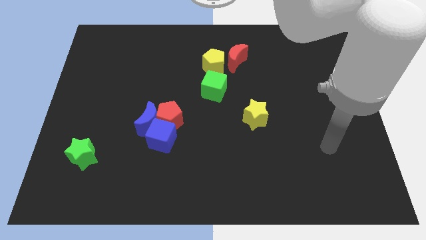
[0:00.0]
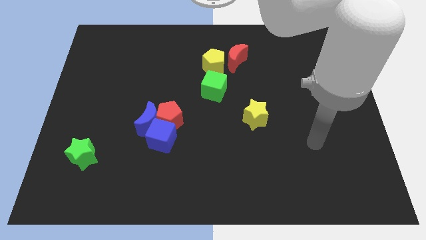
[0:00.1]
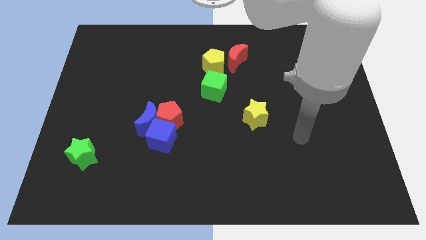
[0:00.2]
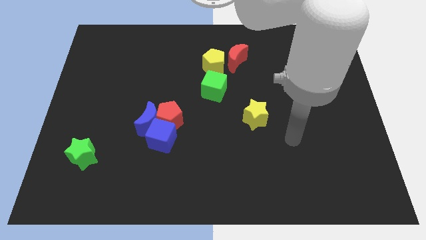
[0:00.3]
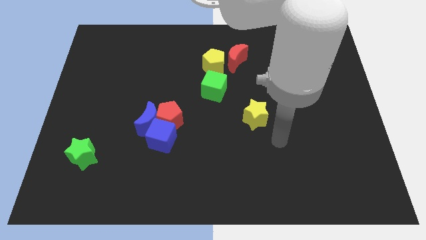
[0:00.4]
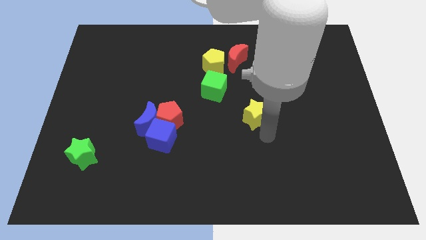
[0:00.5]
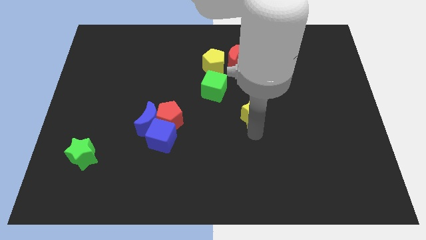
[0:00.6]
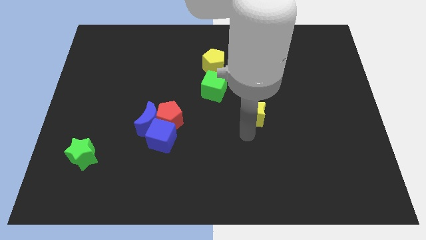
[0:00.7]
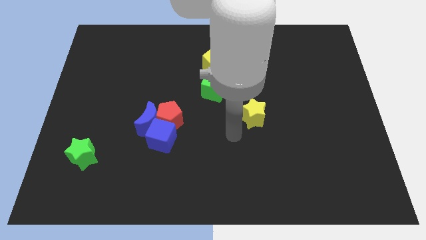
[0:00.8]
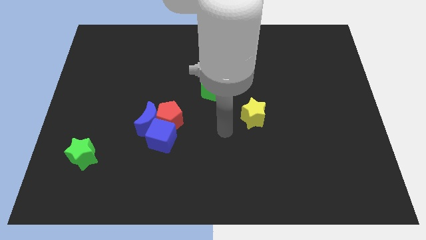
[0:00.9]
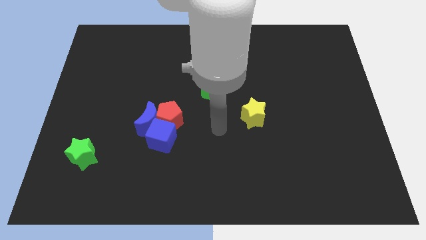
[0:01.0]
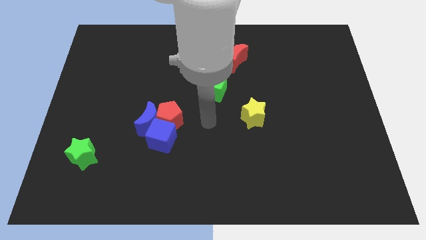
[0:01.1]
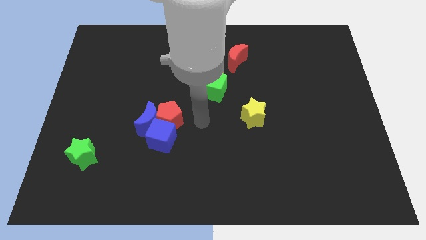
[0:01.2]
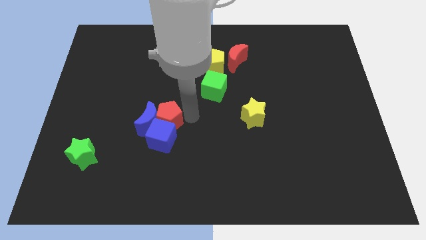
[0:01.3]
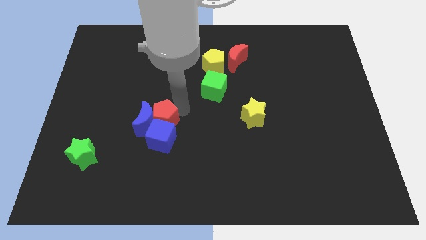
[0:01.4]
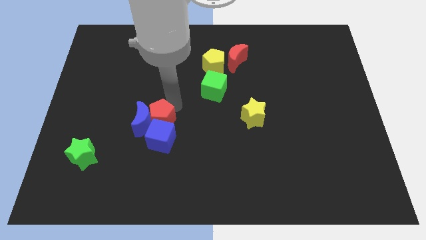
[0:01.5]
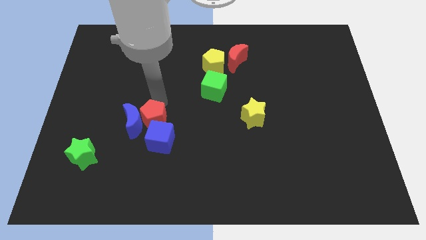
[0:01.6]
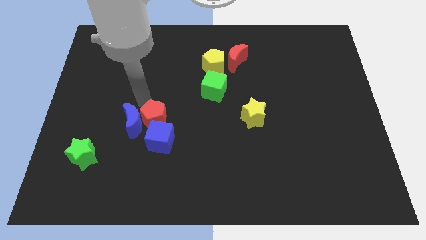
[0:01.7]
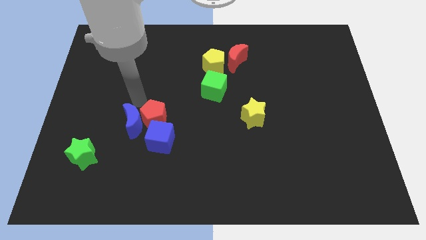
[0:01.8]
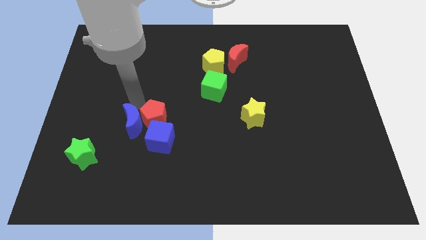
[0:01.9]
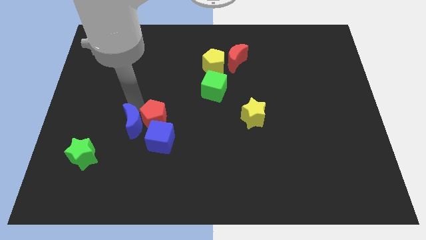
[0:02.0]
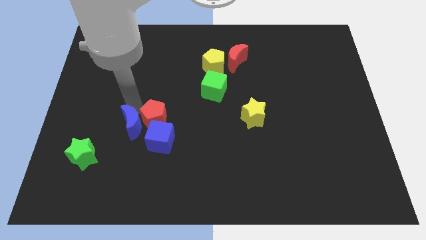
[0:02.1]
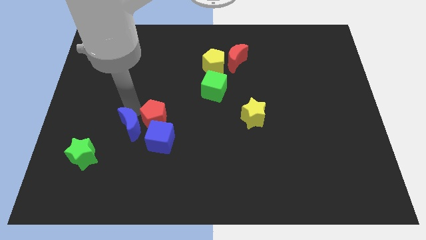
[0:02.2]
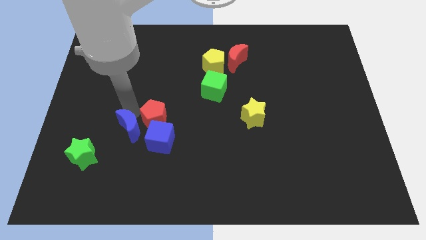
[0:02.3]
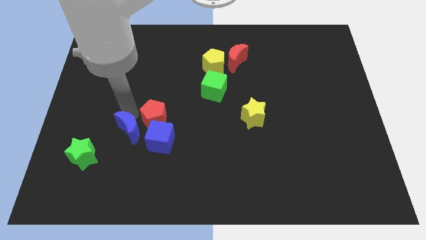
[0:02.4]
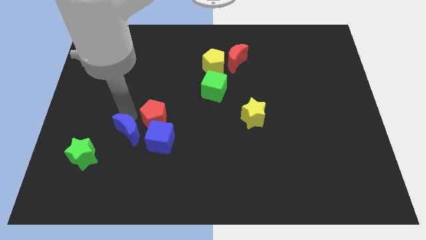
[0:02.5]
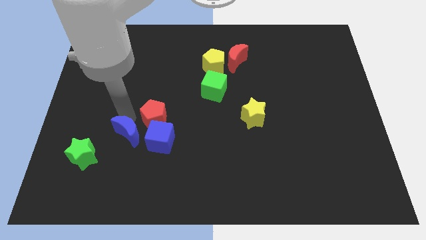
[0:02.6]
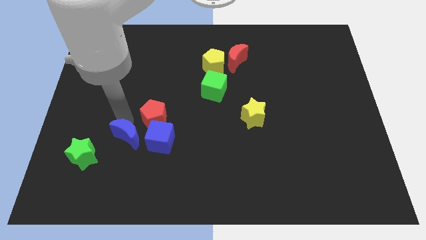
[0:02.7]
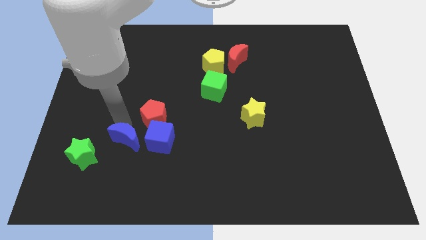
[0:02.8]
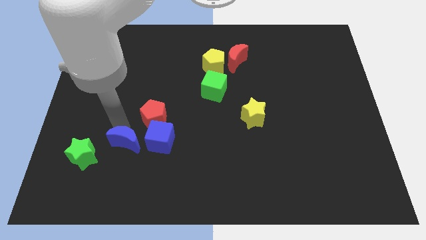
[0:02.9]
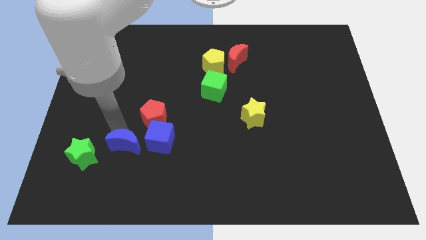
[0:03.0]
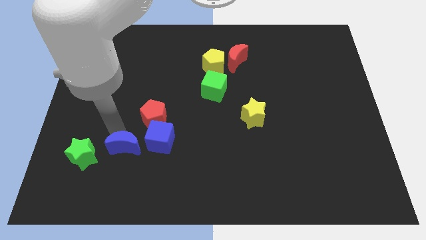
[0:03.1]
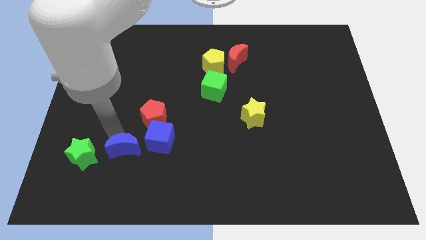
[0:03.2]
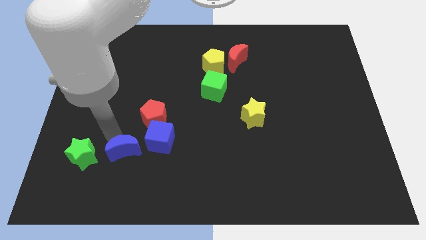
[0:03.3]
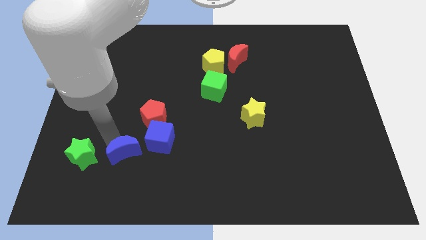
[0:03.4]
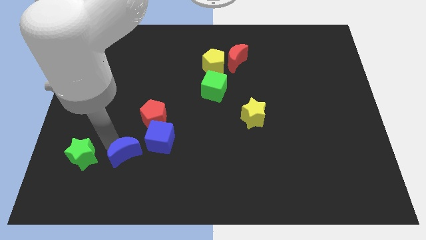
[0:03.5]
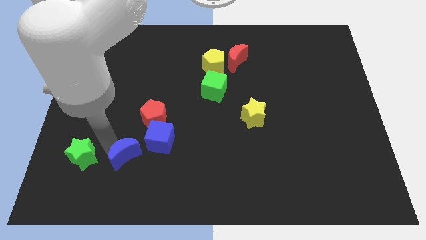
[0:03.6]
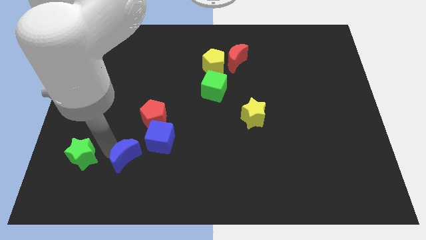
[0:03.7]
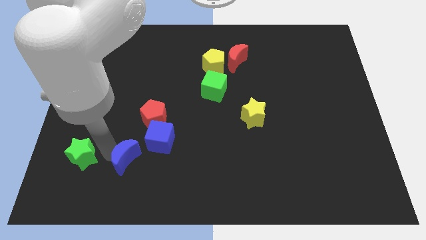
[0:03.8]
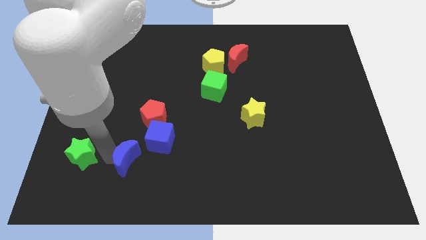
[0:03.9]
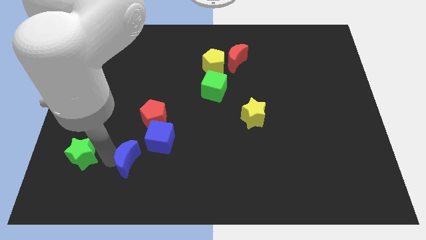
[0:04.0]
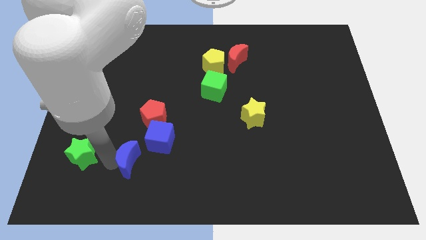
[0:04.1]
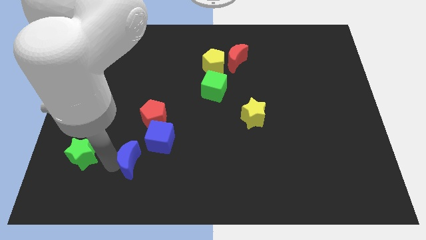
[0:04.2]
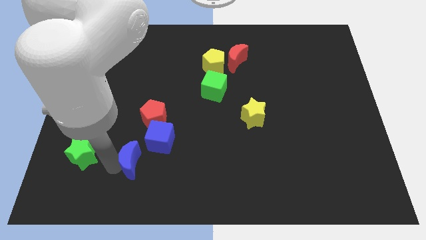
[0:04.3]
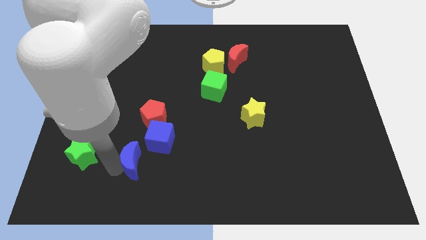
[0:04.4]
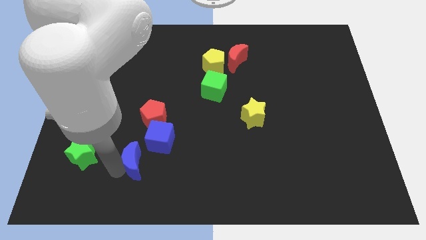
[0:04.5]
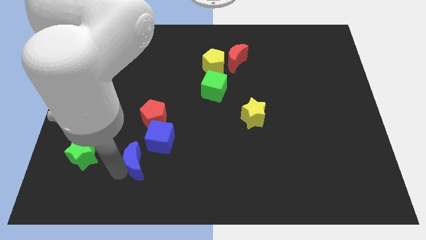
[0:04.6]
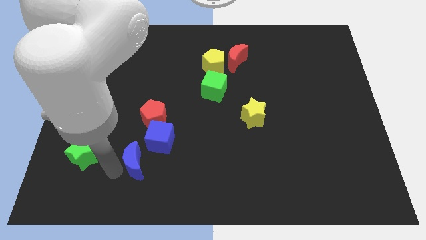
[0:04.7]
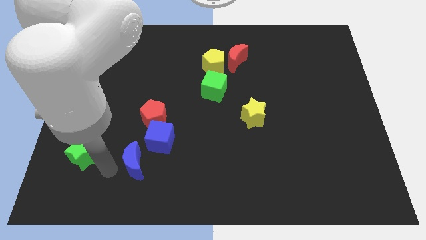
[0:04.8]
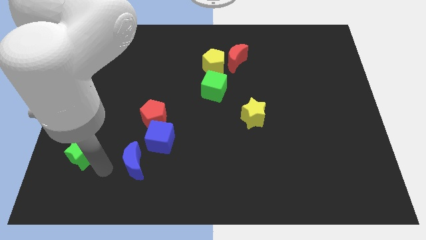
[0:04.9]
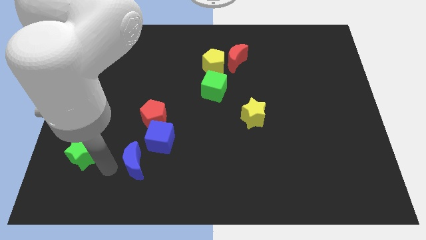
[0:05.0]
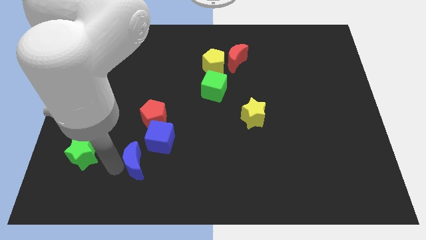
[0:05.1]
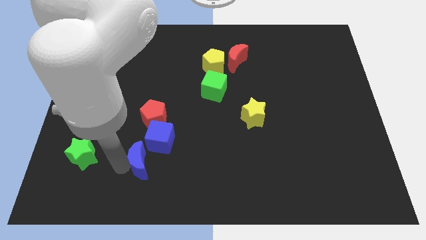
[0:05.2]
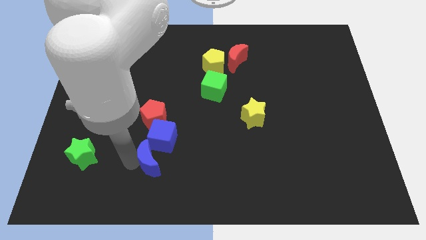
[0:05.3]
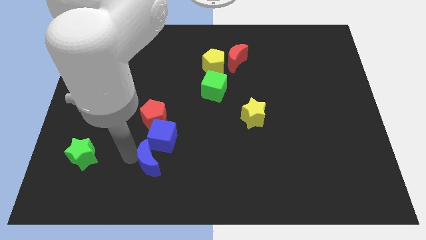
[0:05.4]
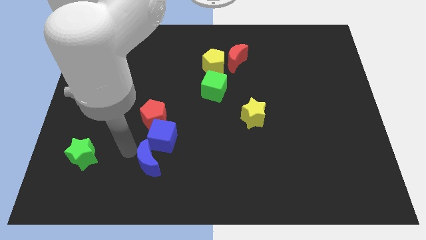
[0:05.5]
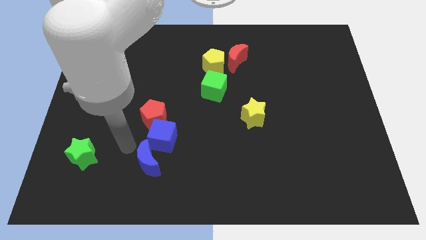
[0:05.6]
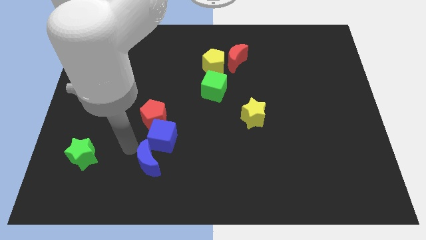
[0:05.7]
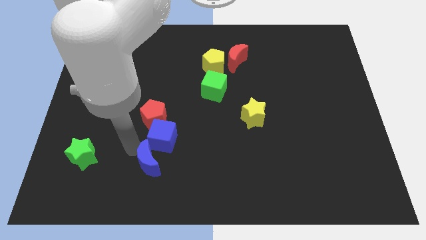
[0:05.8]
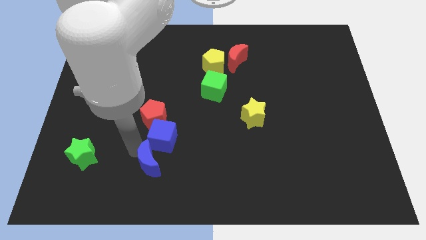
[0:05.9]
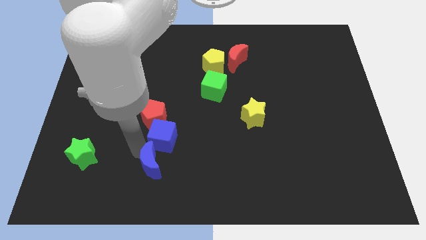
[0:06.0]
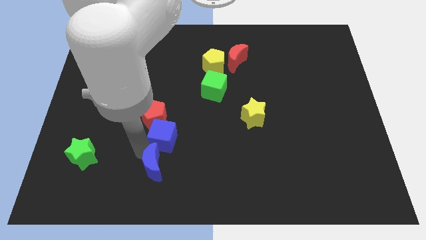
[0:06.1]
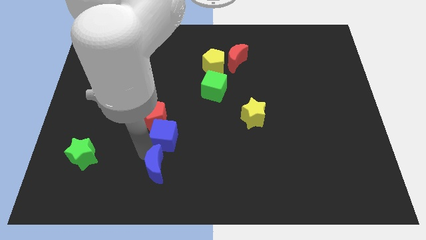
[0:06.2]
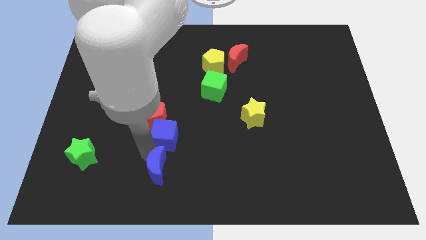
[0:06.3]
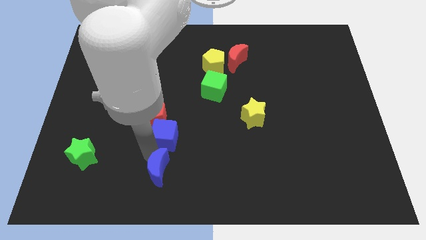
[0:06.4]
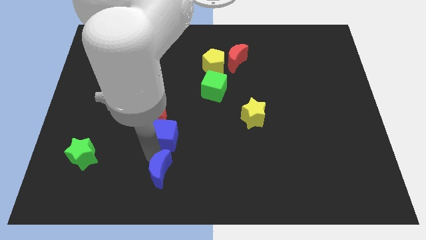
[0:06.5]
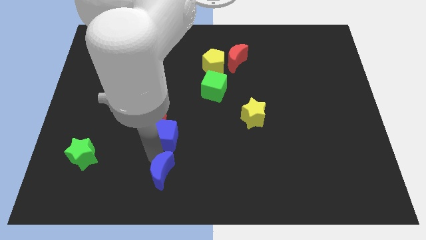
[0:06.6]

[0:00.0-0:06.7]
put the blue moon to the bottom side
